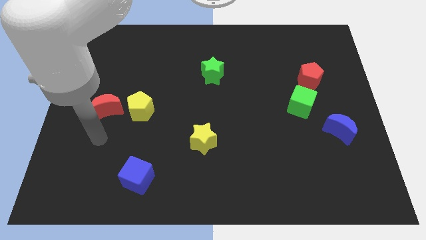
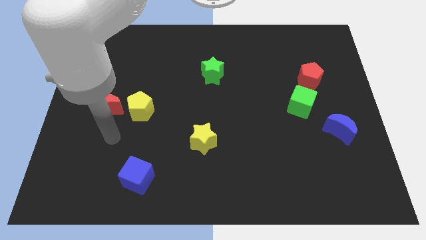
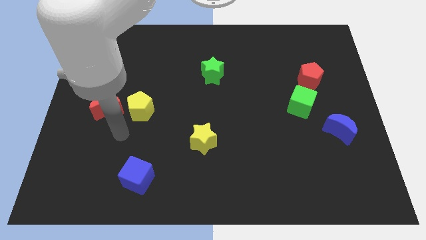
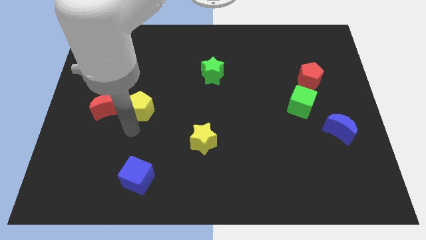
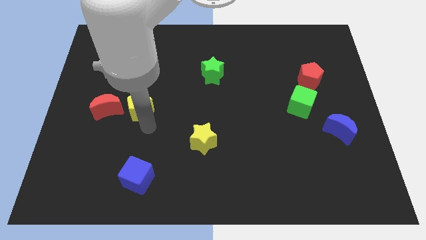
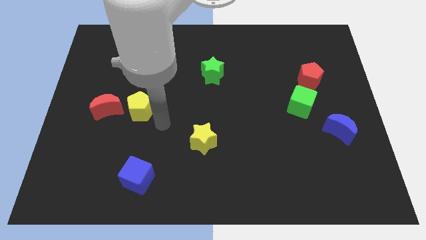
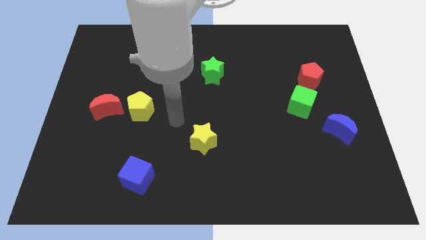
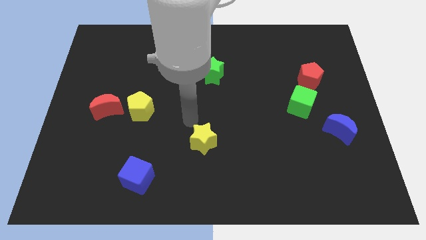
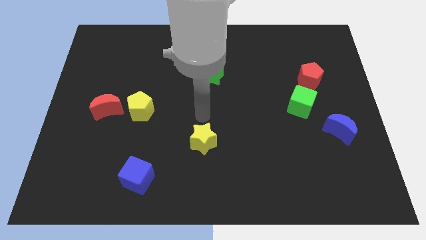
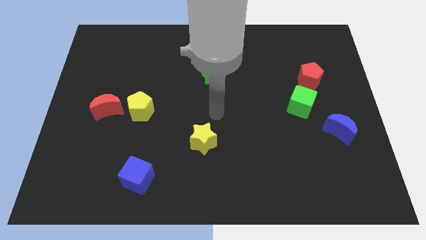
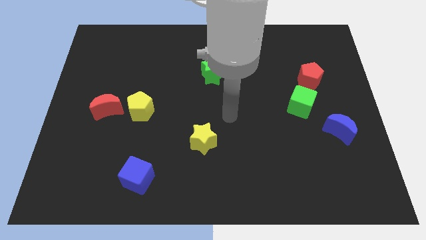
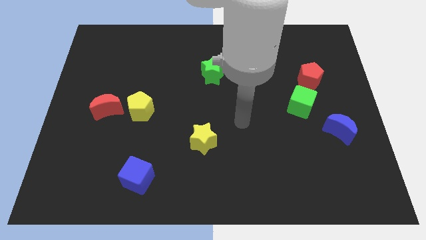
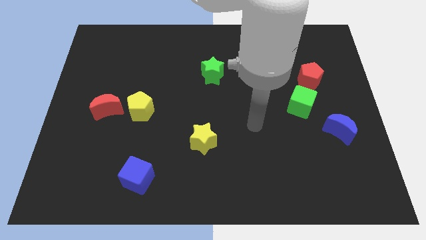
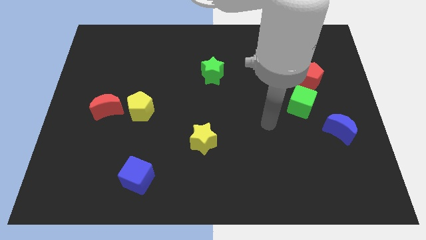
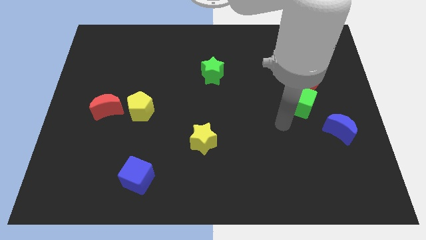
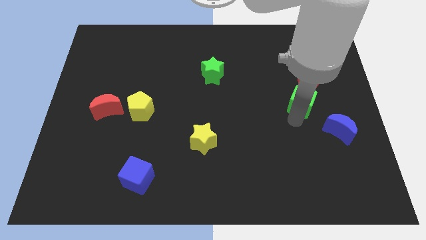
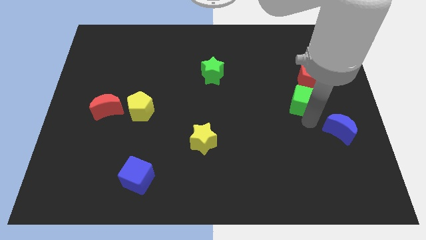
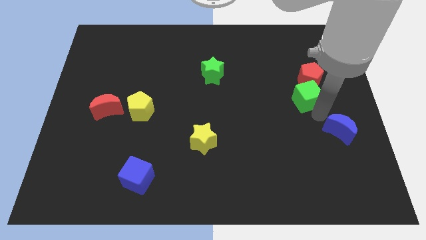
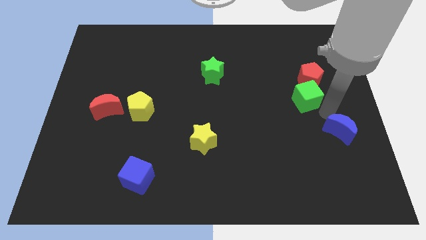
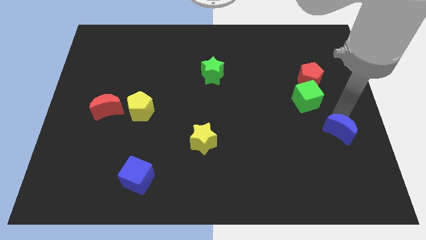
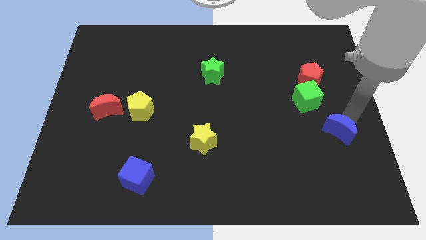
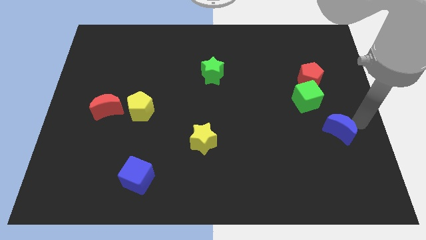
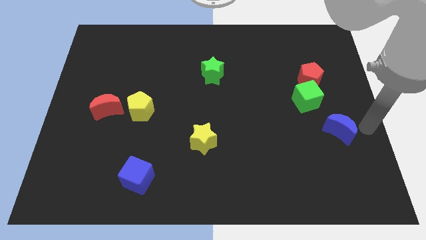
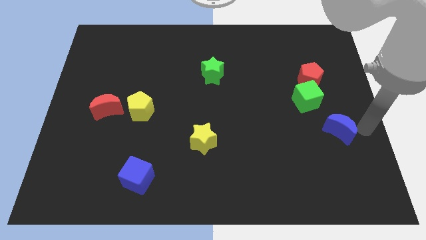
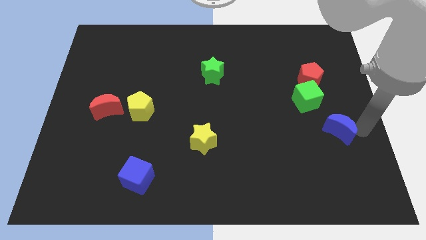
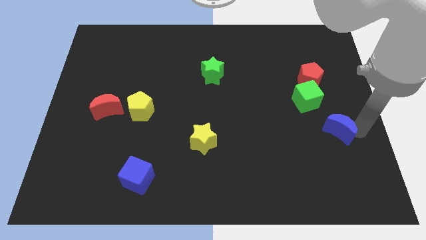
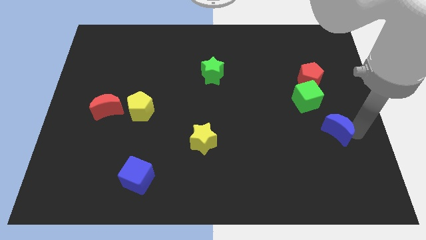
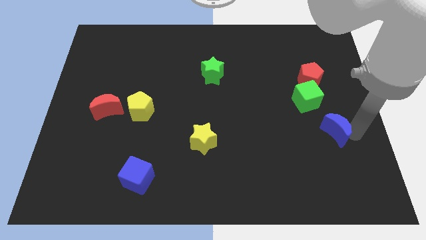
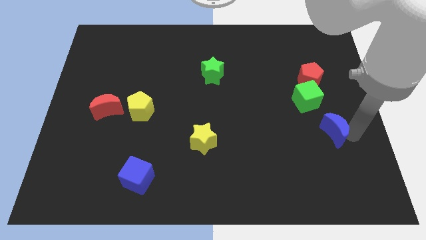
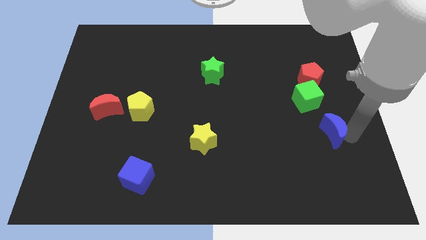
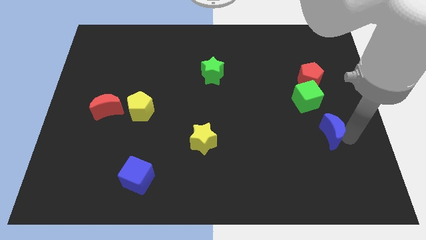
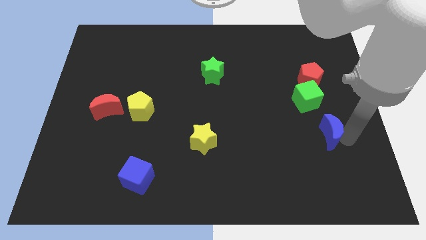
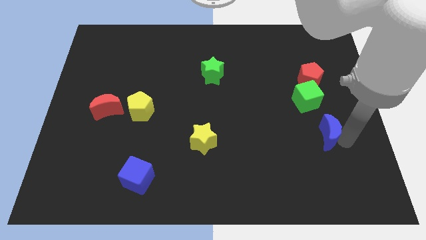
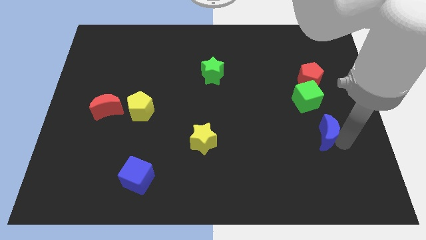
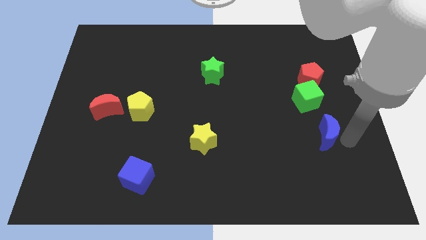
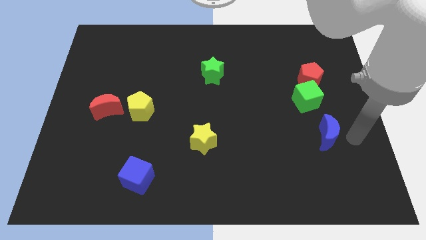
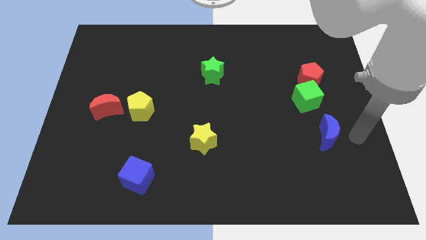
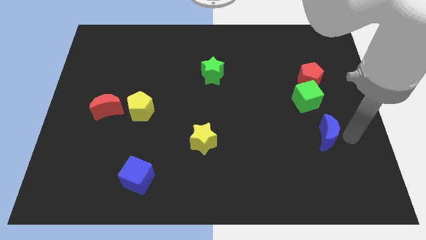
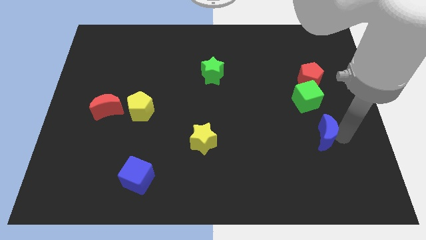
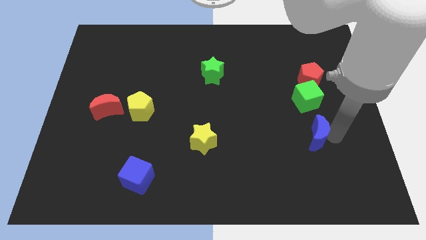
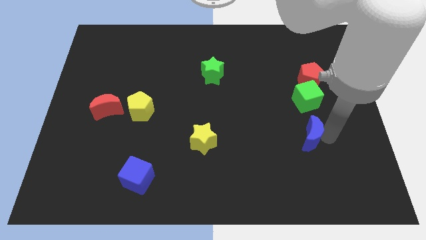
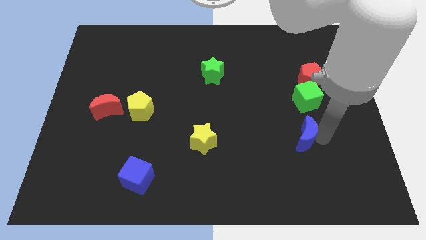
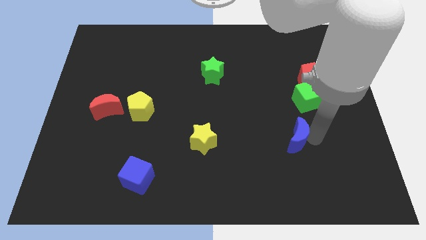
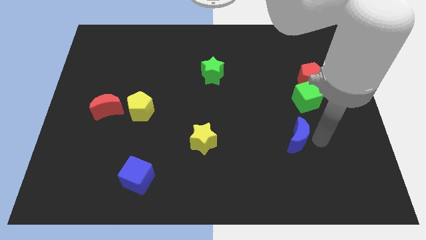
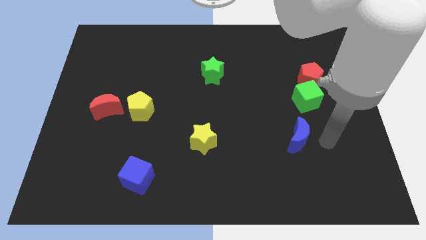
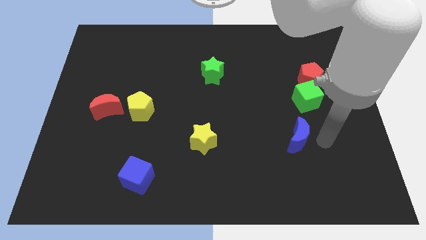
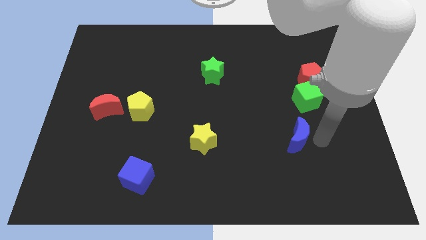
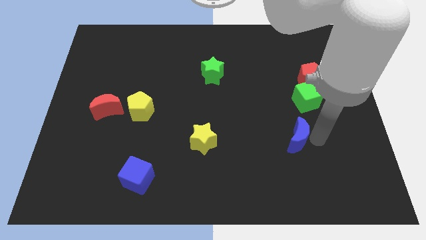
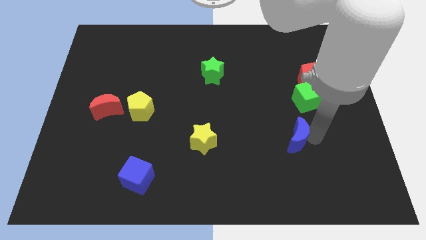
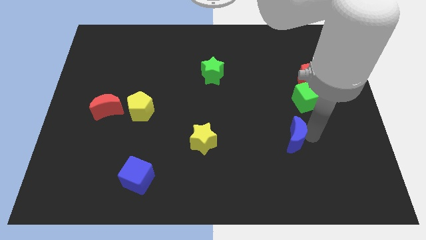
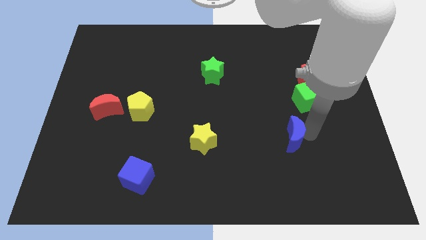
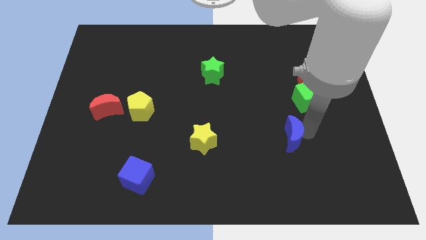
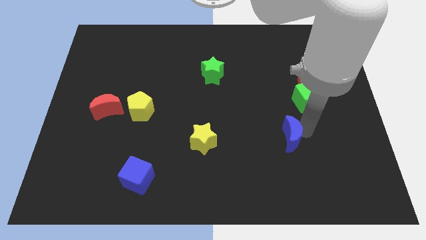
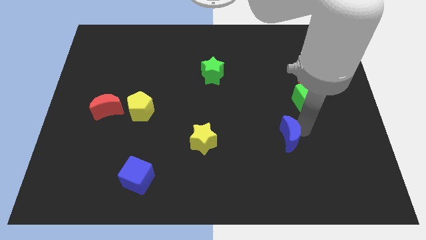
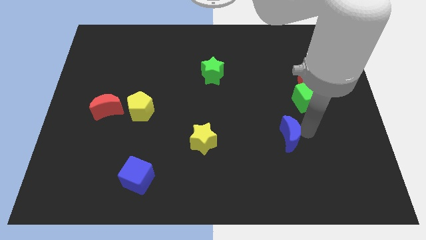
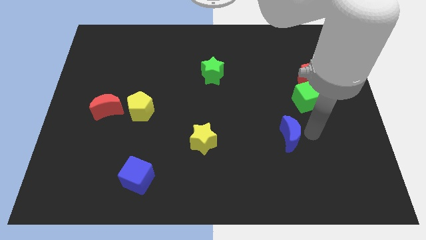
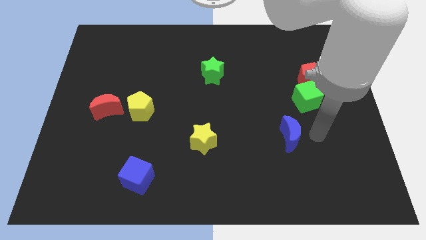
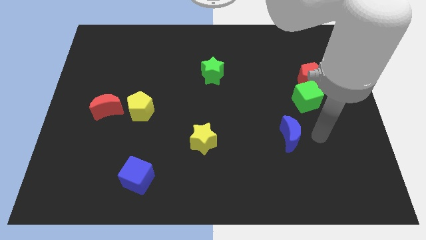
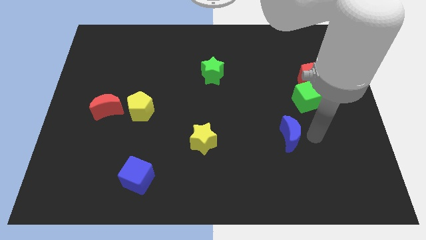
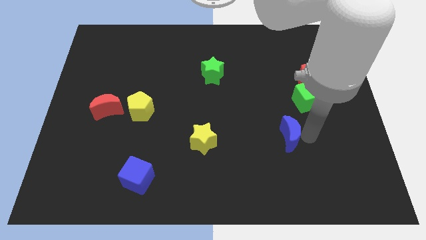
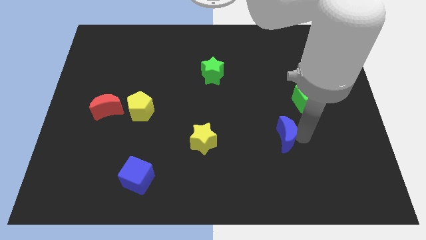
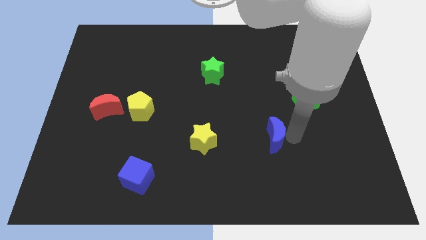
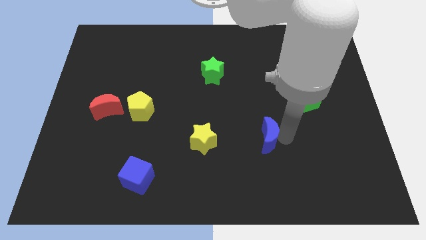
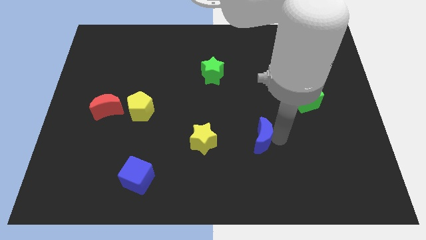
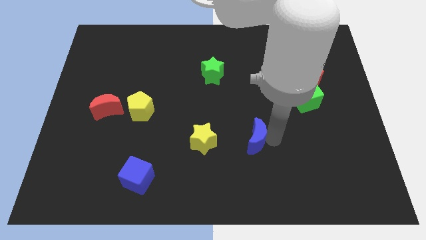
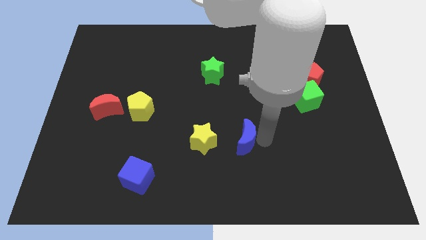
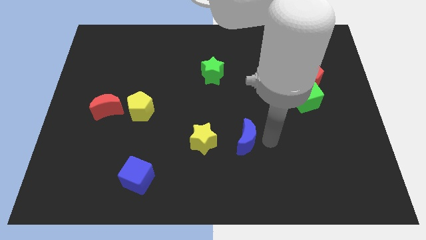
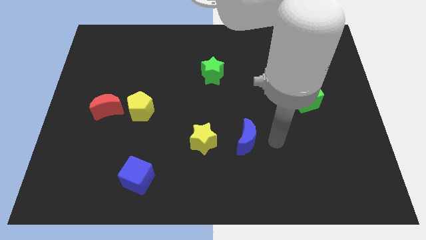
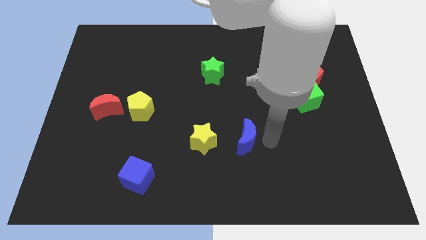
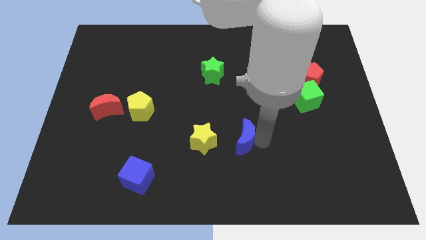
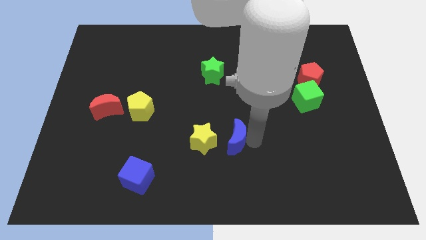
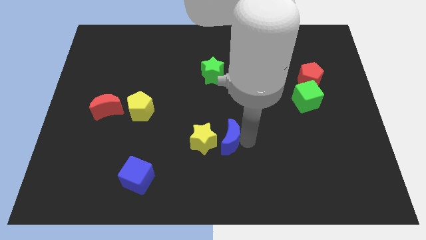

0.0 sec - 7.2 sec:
slide the blue moon next to the yellow star
